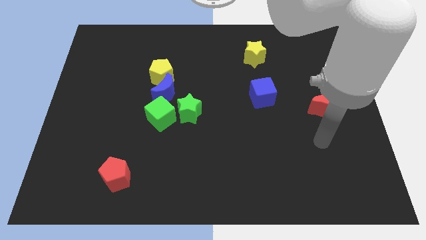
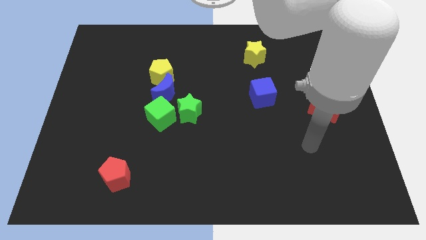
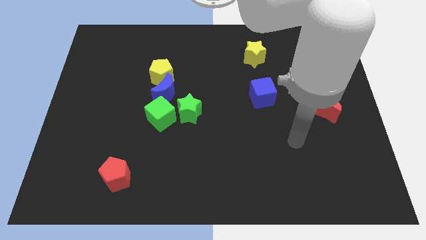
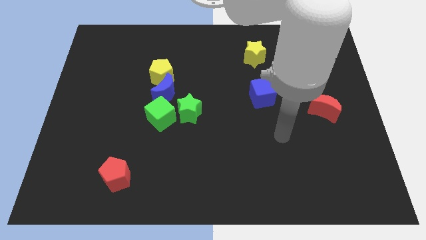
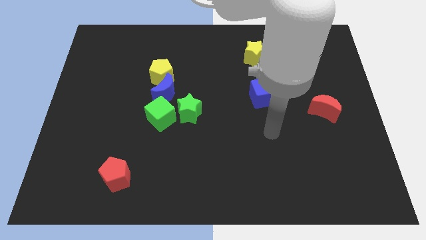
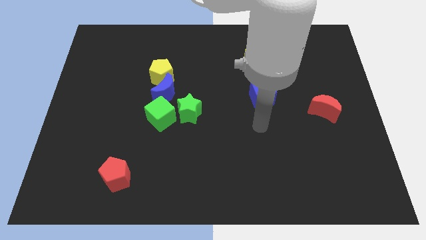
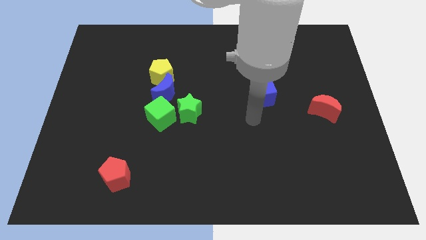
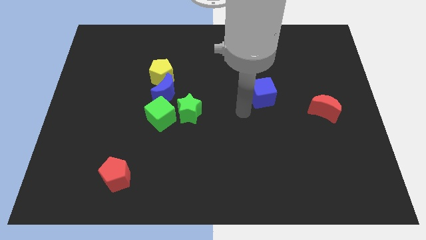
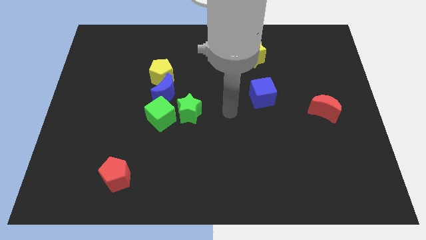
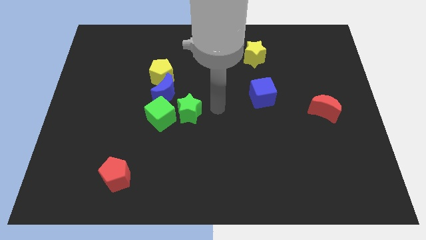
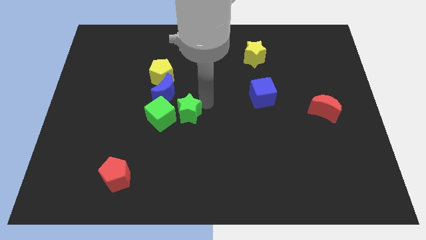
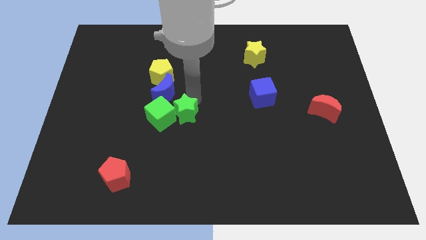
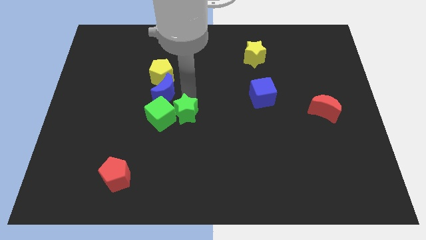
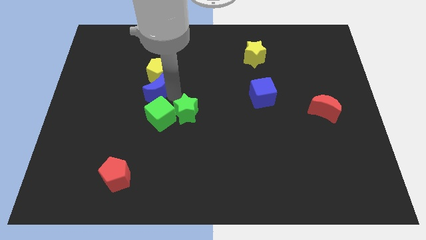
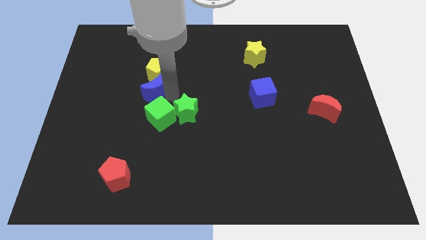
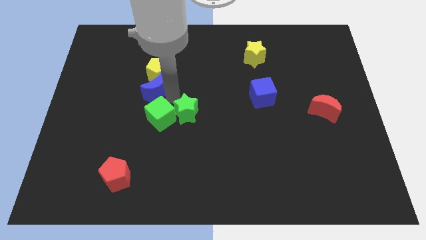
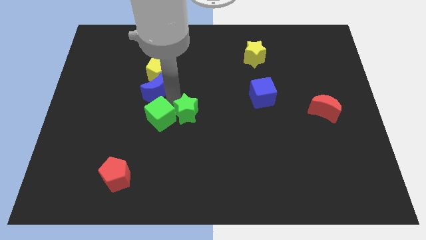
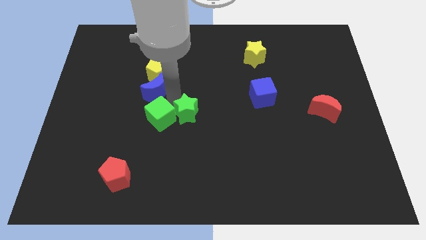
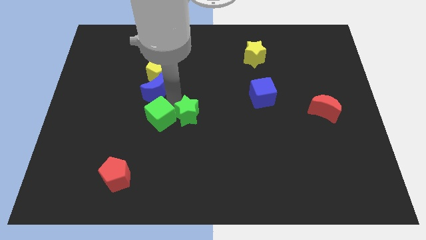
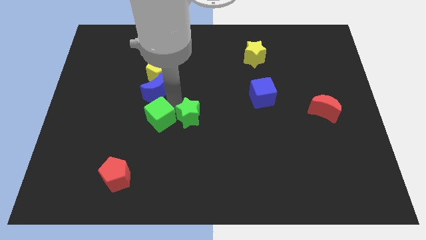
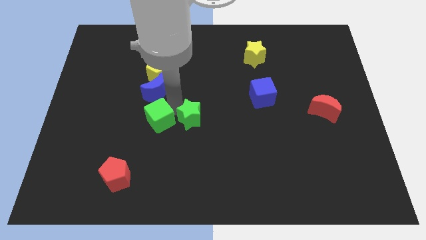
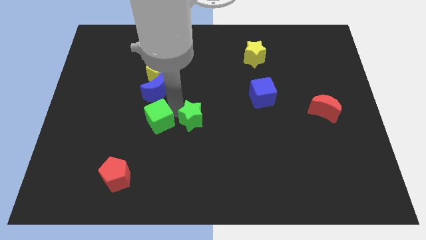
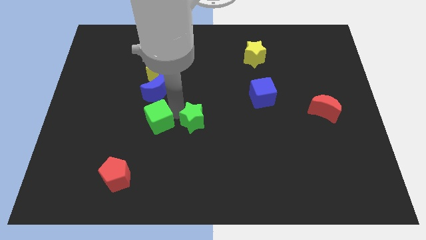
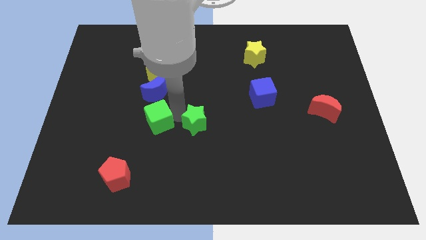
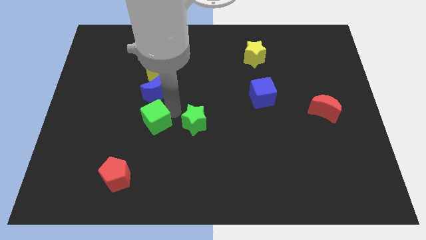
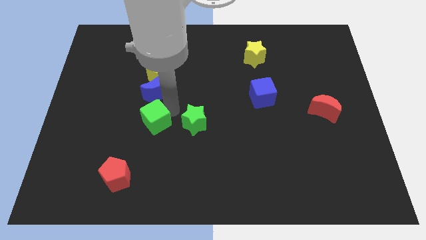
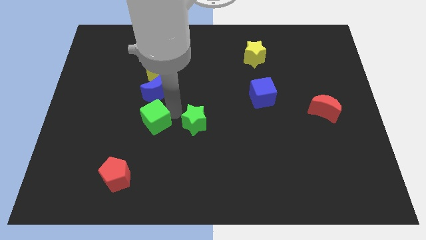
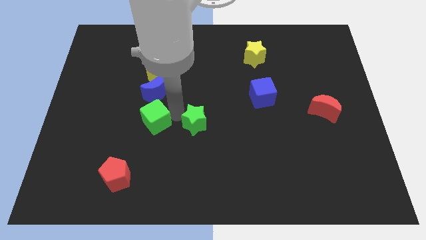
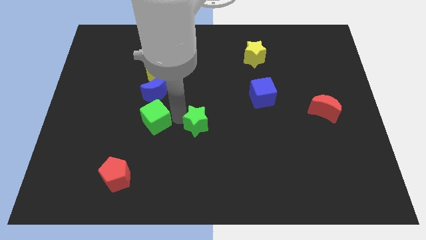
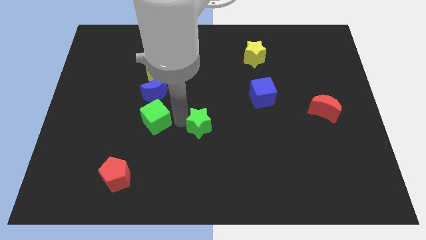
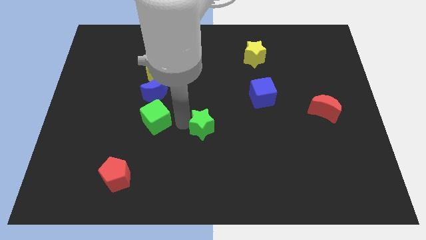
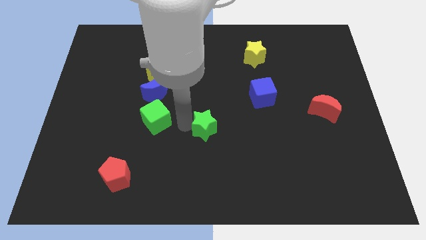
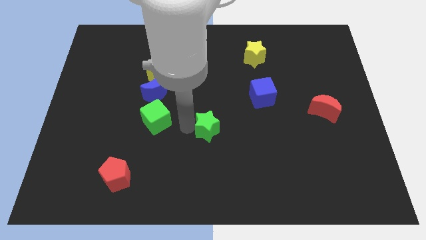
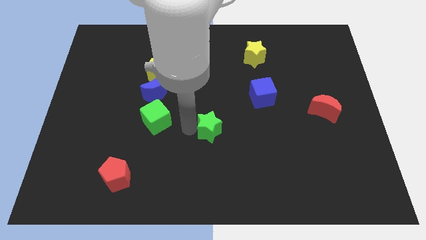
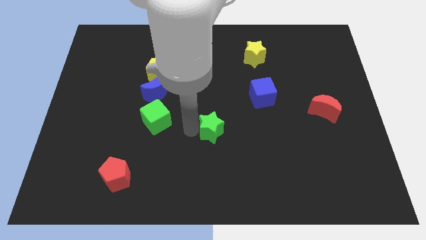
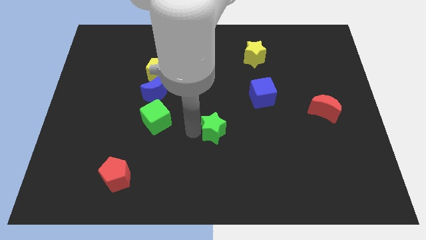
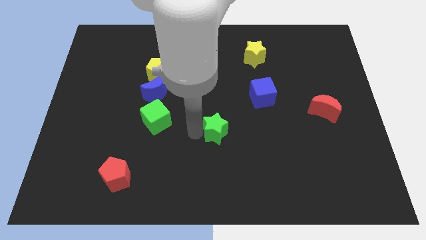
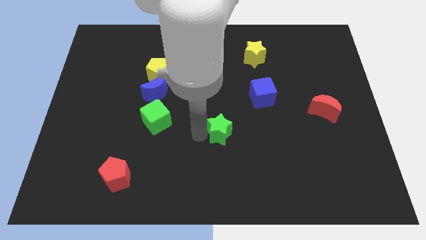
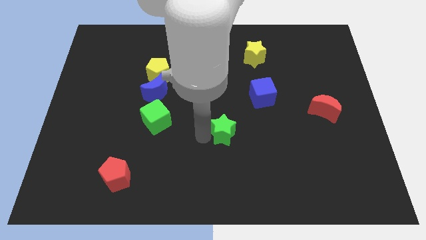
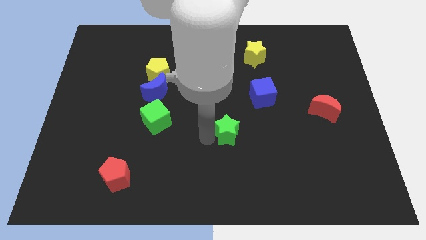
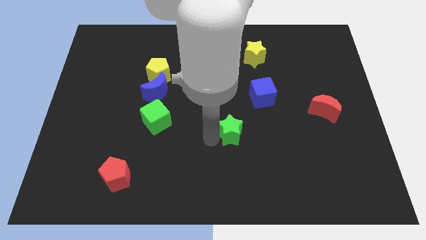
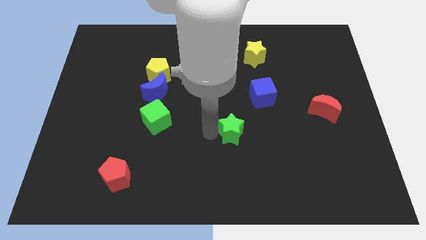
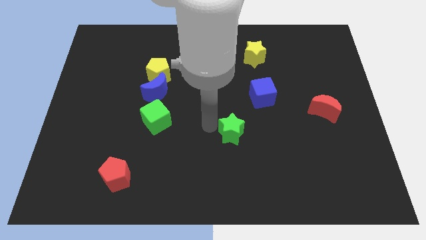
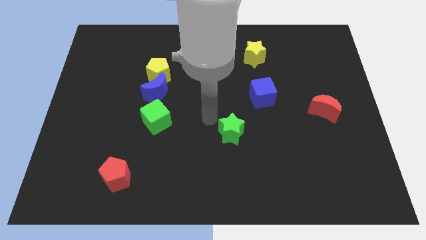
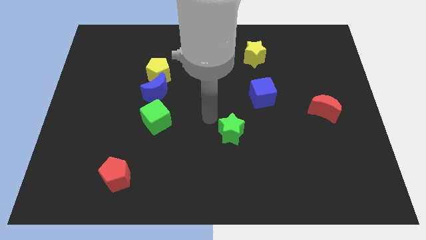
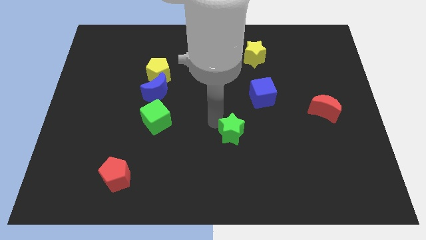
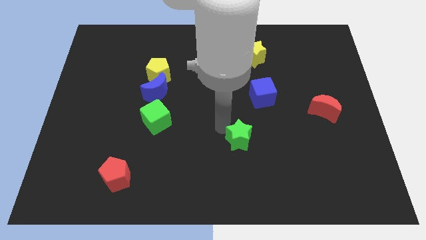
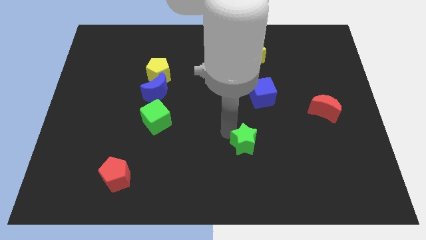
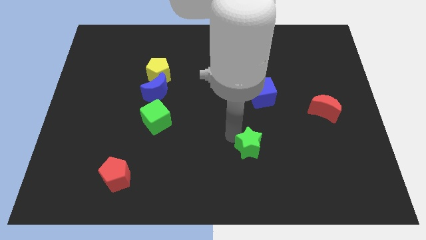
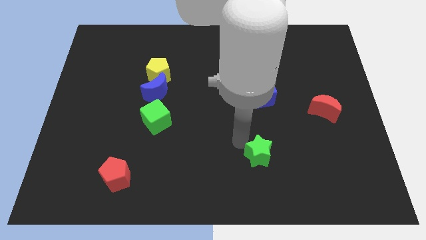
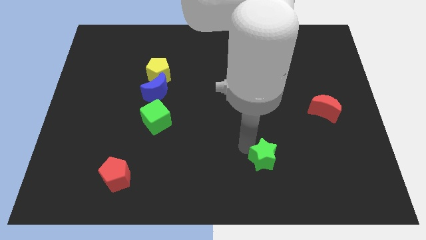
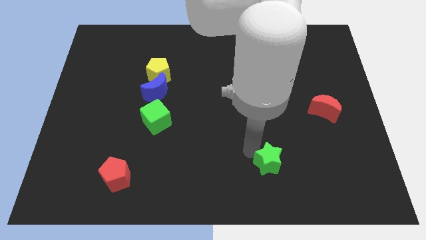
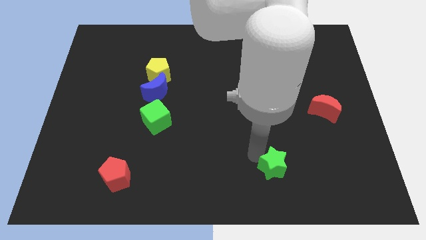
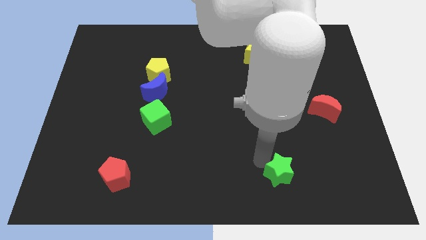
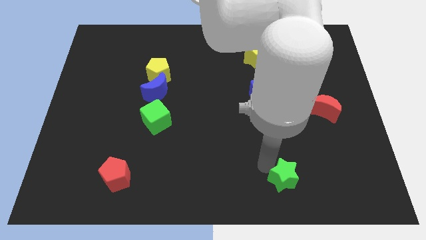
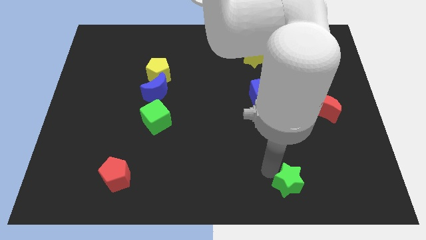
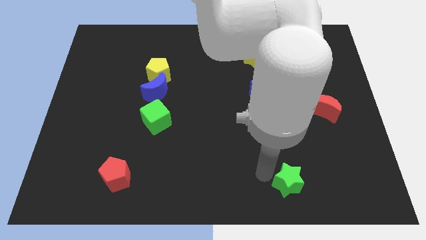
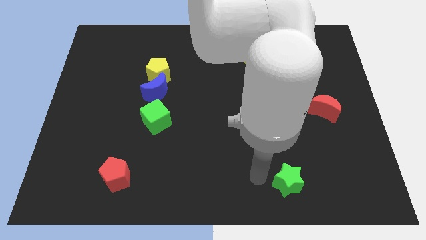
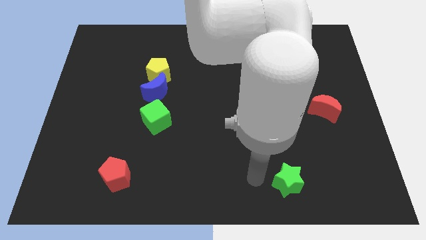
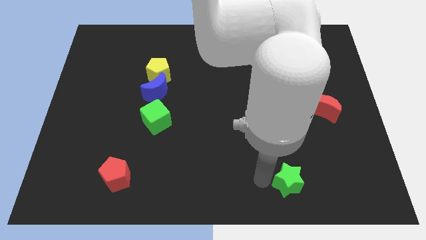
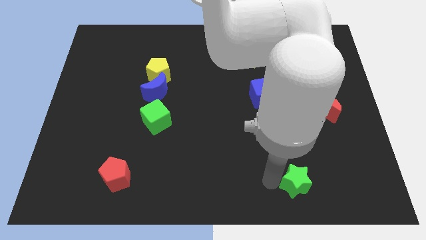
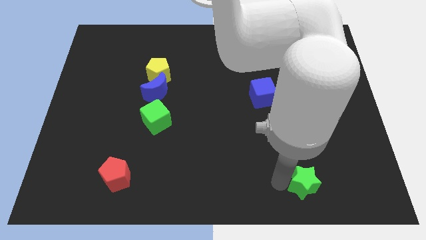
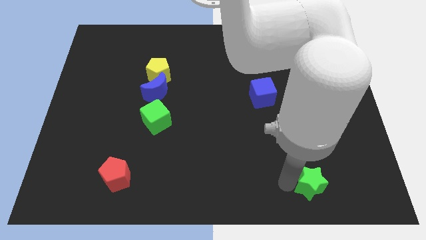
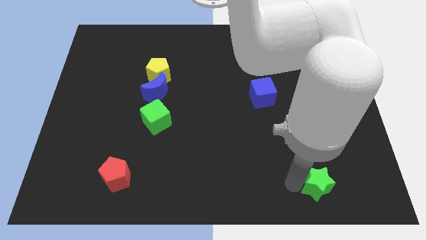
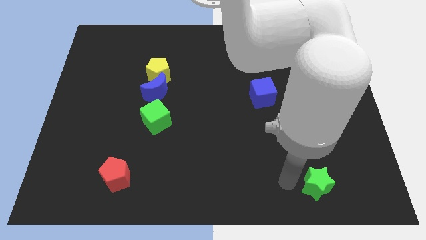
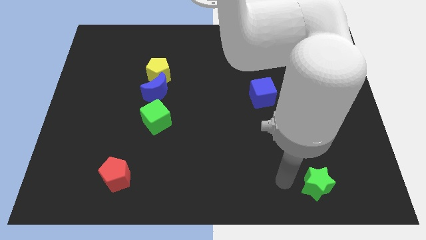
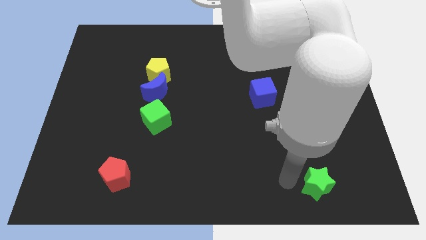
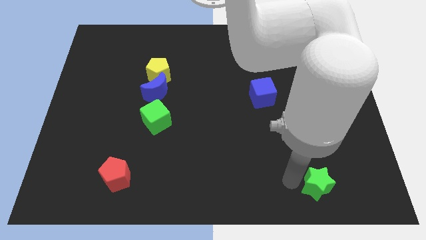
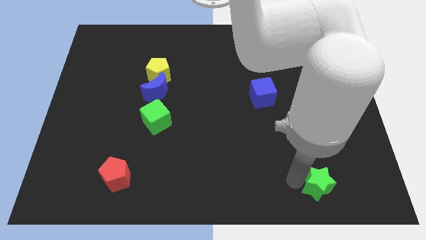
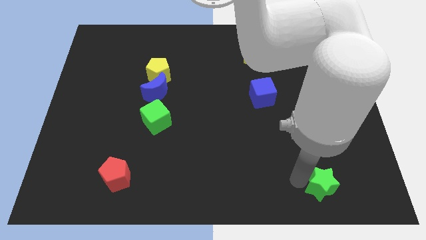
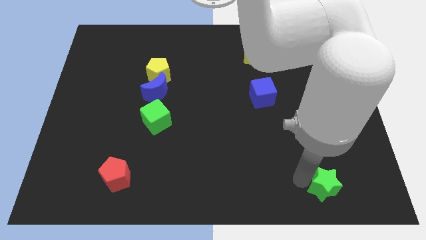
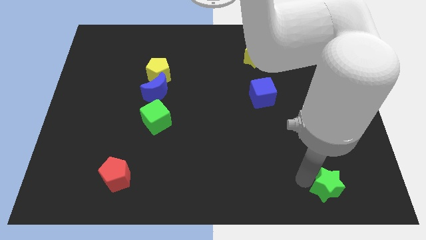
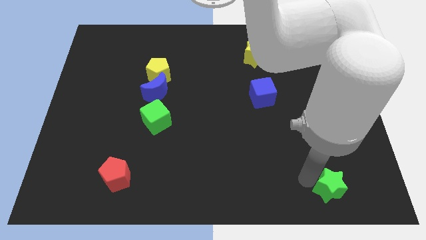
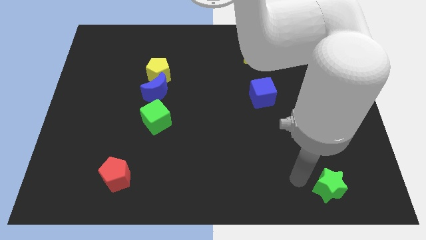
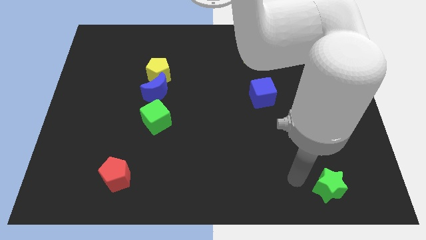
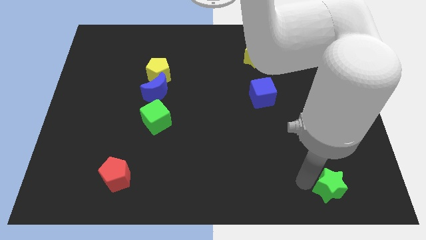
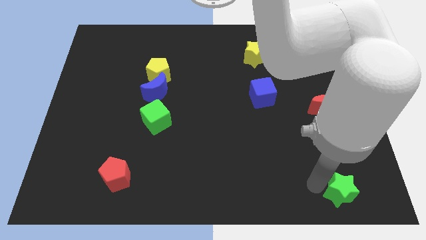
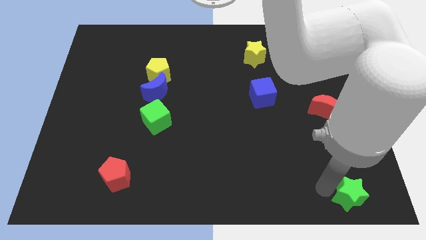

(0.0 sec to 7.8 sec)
put the green star to the bottom right
